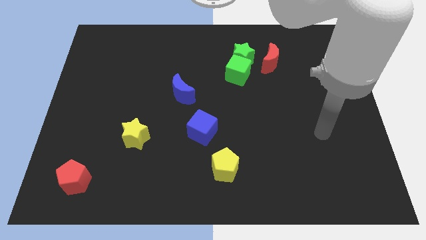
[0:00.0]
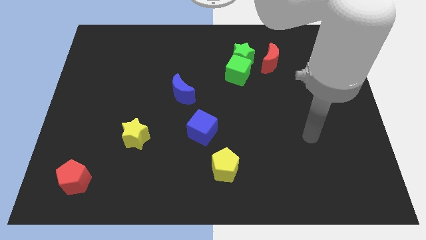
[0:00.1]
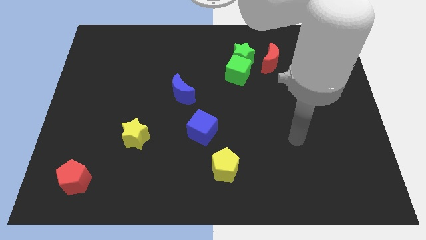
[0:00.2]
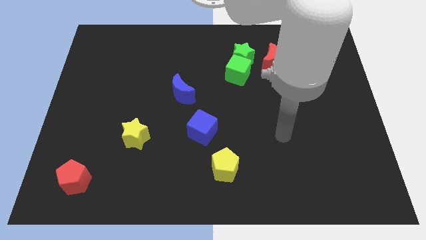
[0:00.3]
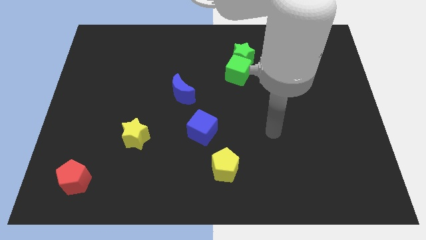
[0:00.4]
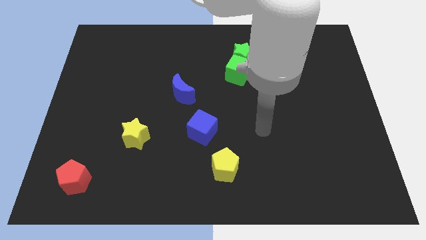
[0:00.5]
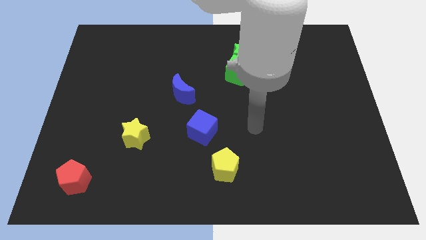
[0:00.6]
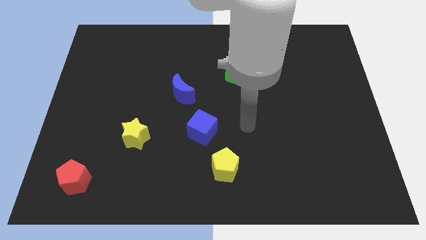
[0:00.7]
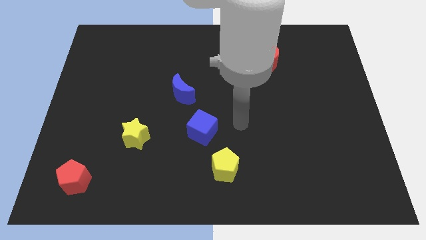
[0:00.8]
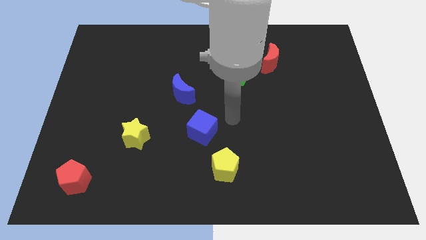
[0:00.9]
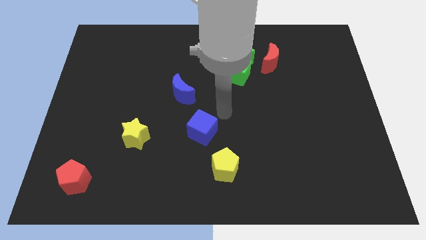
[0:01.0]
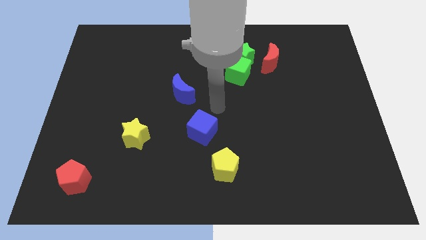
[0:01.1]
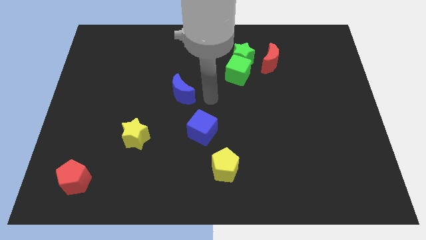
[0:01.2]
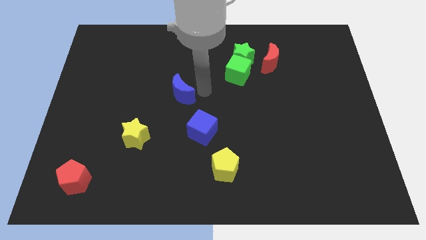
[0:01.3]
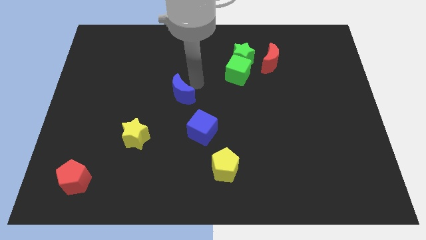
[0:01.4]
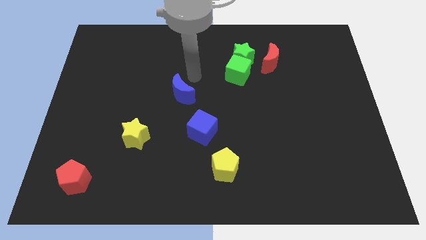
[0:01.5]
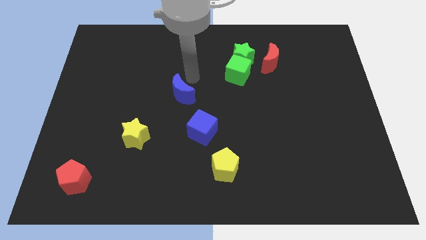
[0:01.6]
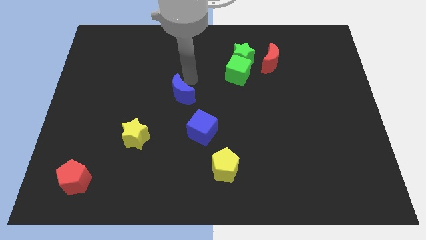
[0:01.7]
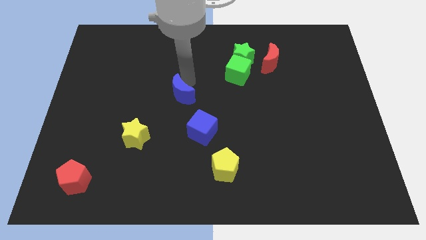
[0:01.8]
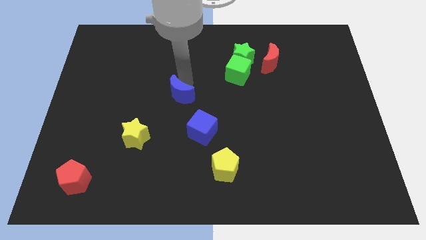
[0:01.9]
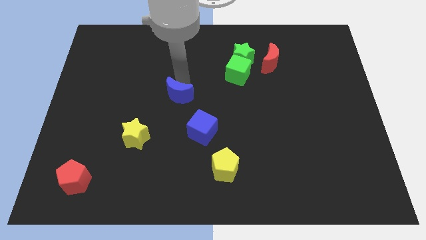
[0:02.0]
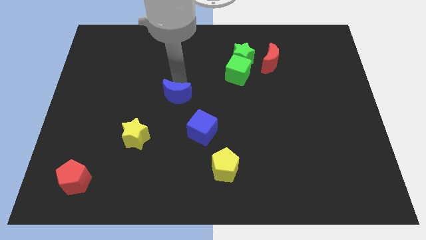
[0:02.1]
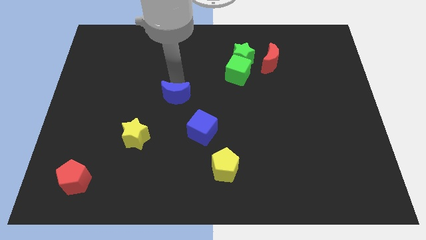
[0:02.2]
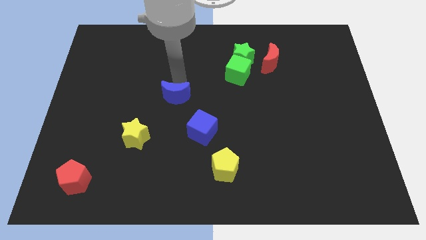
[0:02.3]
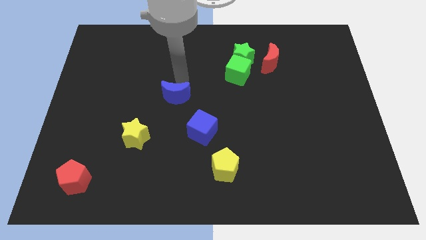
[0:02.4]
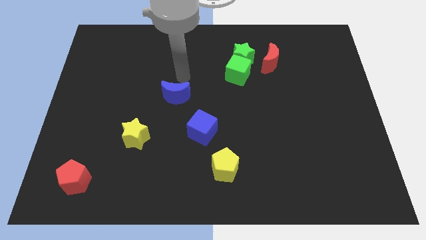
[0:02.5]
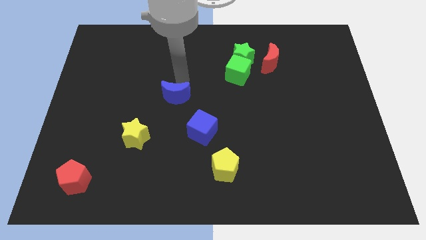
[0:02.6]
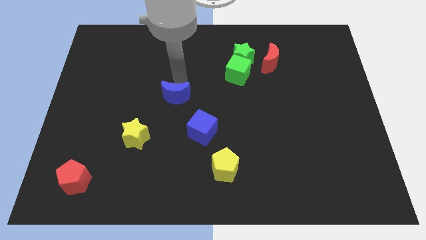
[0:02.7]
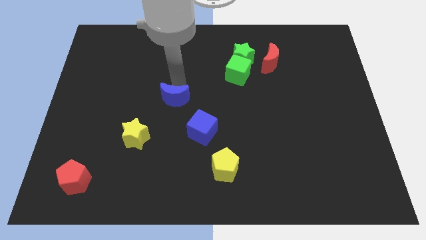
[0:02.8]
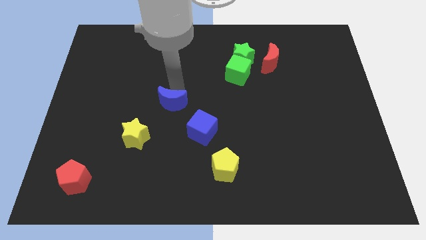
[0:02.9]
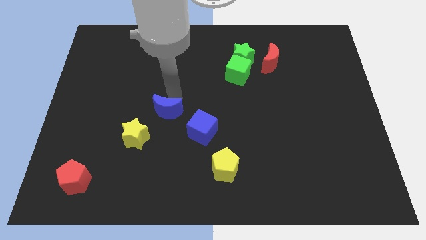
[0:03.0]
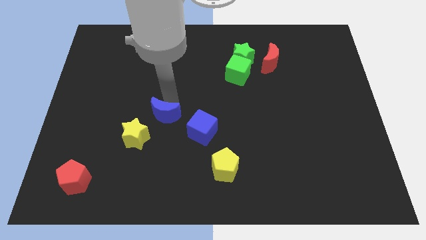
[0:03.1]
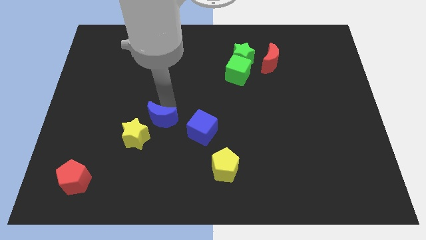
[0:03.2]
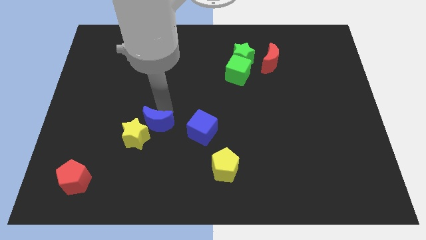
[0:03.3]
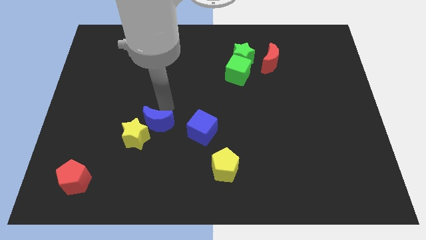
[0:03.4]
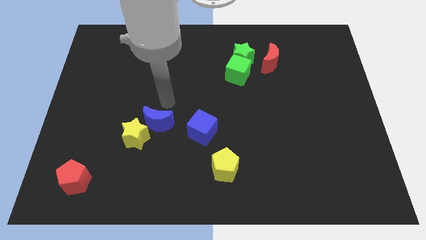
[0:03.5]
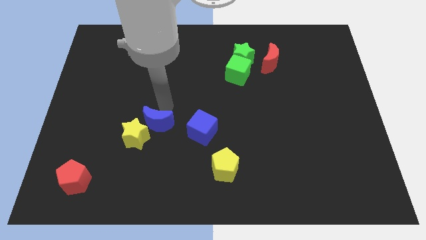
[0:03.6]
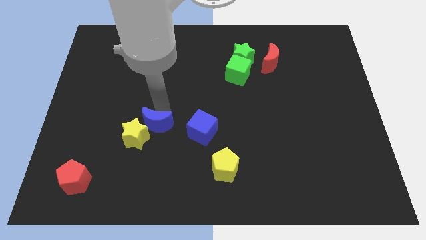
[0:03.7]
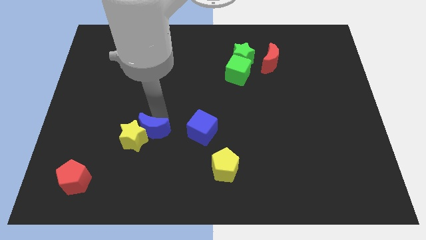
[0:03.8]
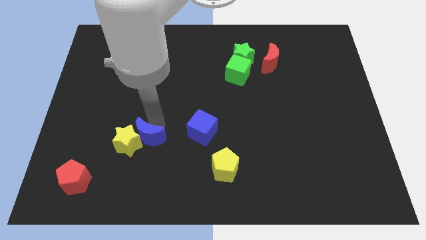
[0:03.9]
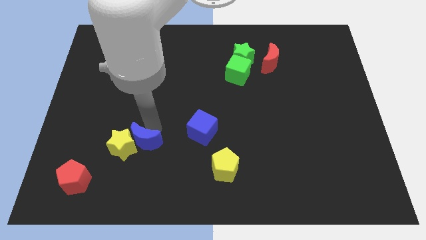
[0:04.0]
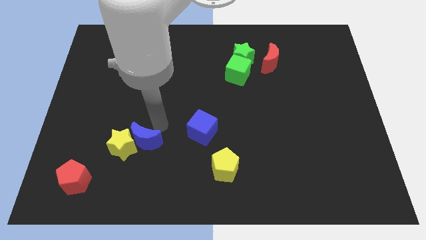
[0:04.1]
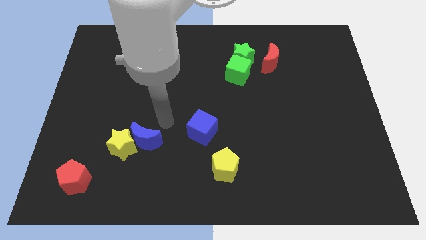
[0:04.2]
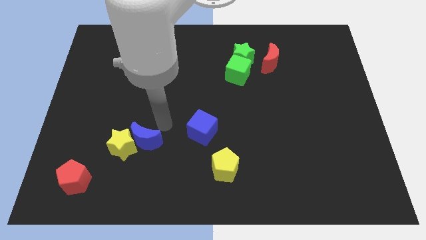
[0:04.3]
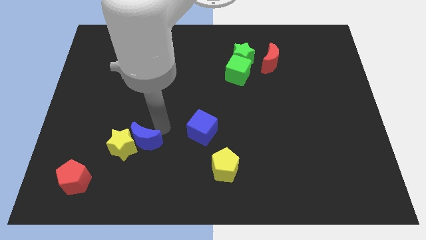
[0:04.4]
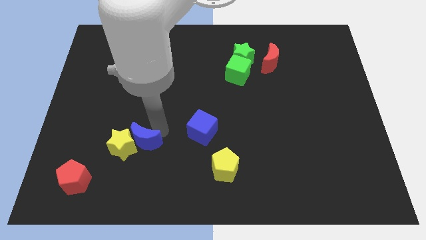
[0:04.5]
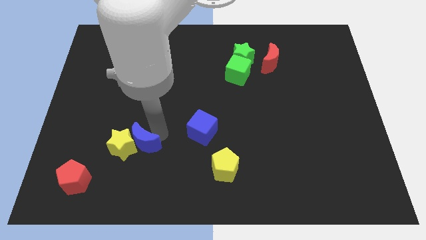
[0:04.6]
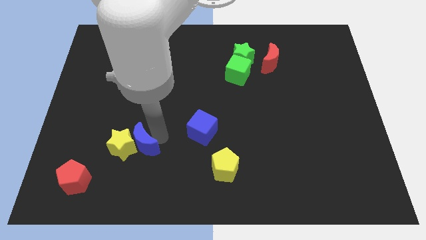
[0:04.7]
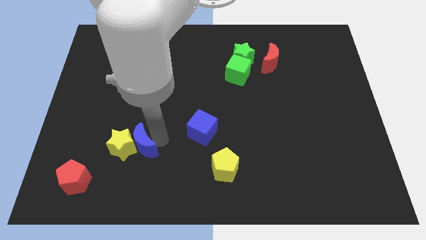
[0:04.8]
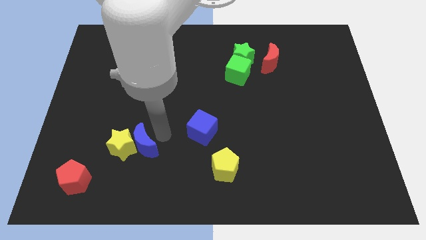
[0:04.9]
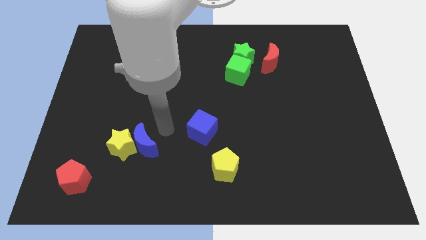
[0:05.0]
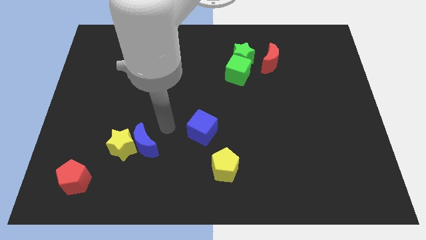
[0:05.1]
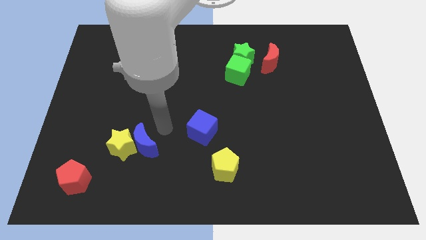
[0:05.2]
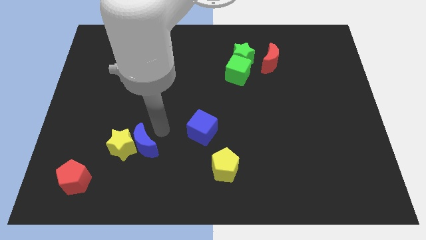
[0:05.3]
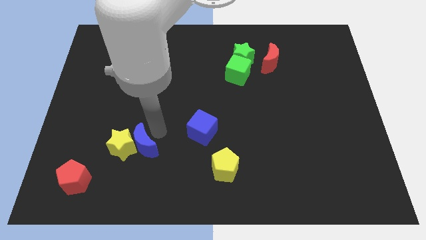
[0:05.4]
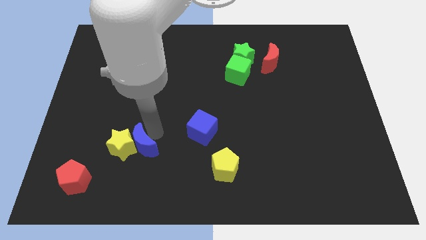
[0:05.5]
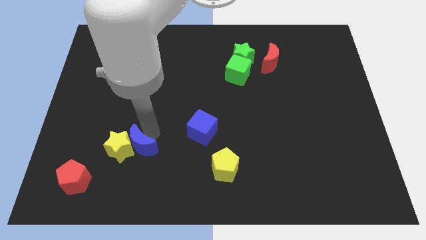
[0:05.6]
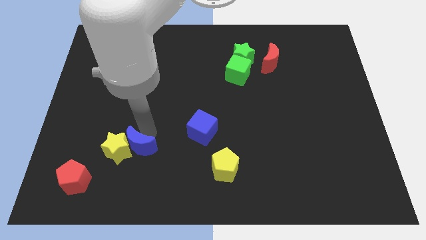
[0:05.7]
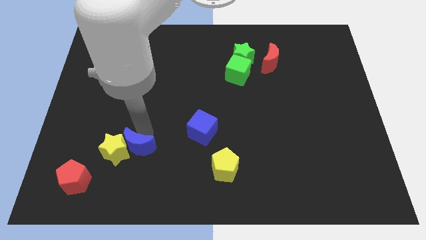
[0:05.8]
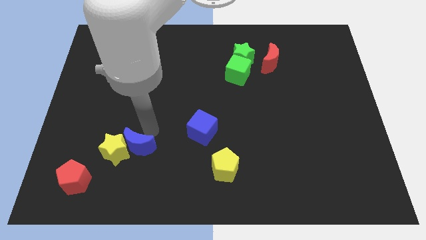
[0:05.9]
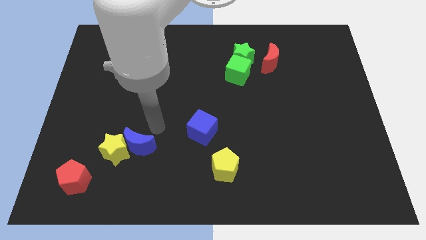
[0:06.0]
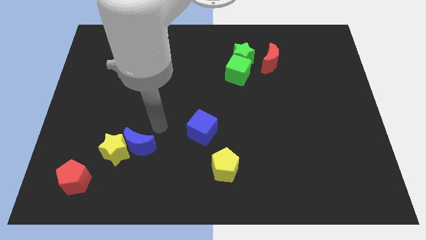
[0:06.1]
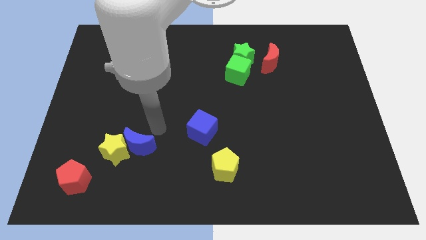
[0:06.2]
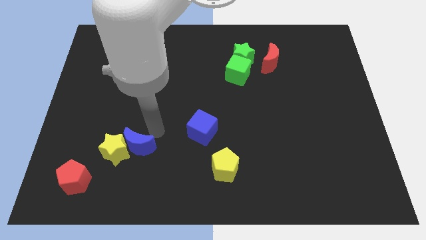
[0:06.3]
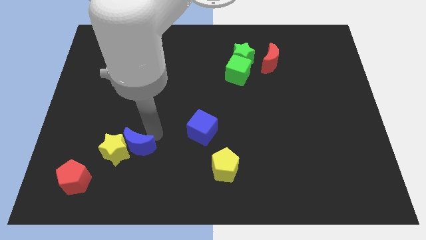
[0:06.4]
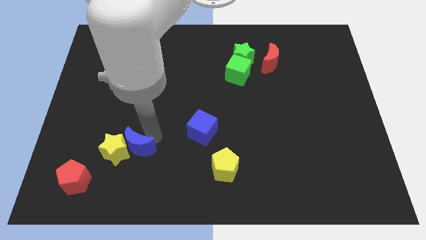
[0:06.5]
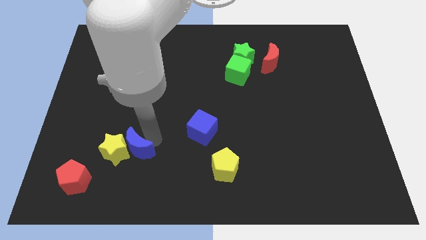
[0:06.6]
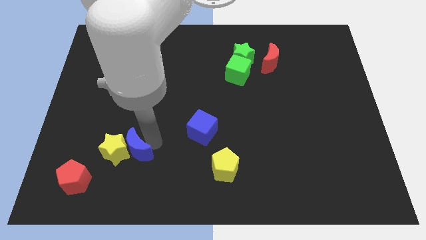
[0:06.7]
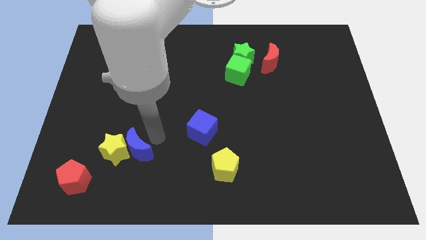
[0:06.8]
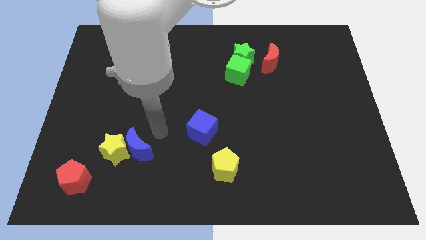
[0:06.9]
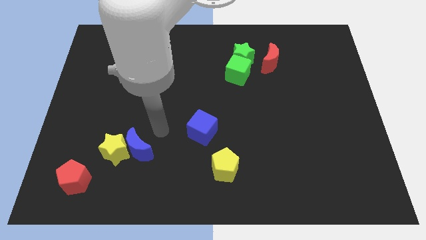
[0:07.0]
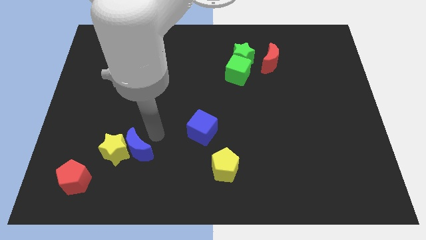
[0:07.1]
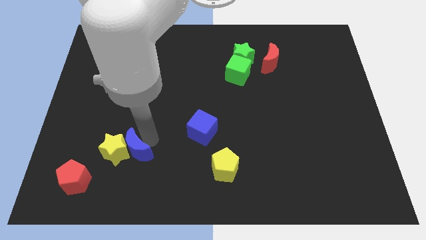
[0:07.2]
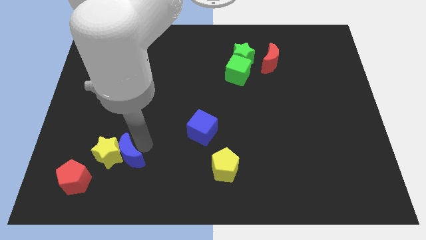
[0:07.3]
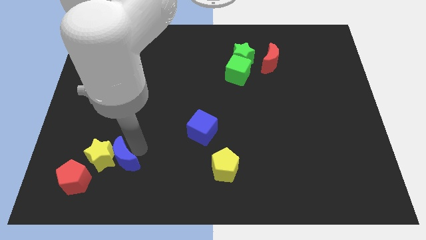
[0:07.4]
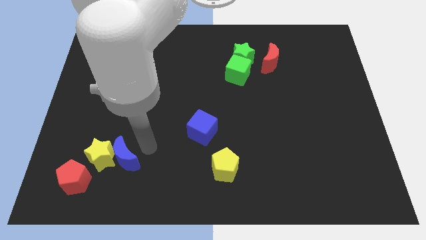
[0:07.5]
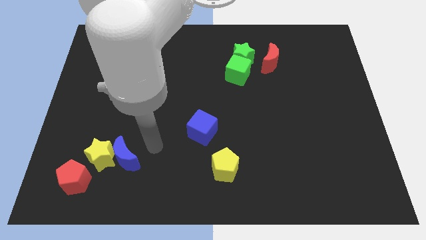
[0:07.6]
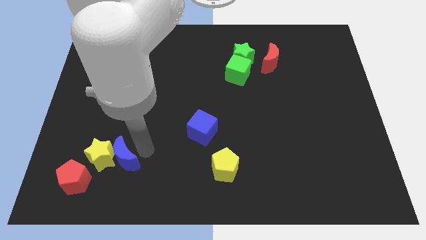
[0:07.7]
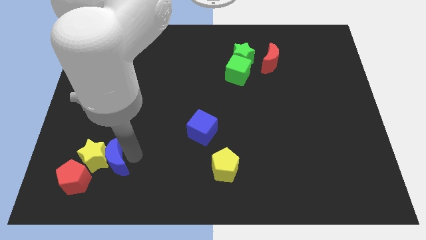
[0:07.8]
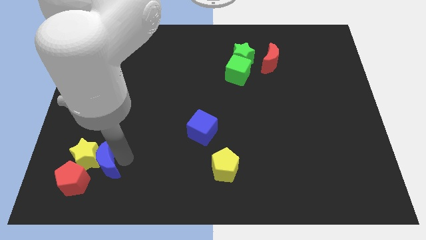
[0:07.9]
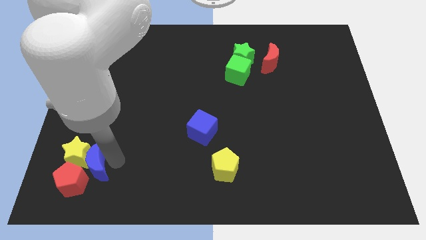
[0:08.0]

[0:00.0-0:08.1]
push the blue moon to the red pentagon
